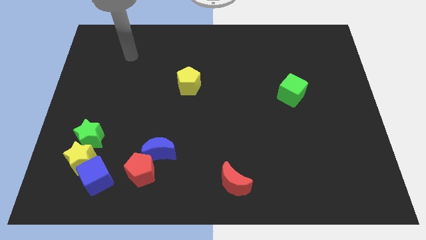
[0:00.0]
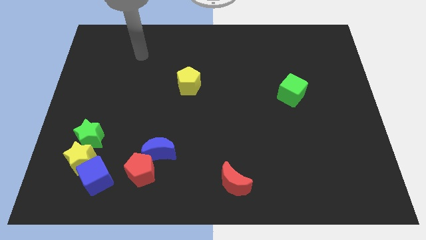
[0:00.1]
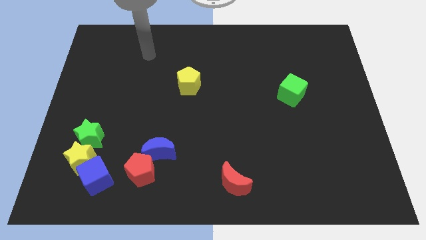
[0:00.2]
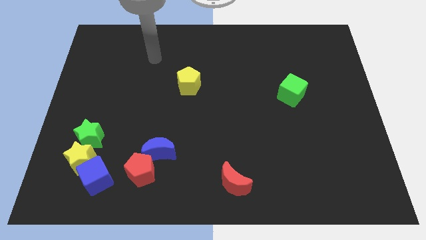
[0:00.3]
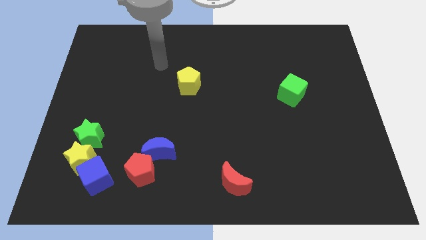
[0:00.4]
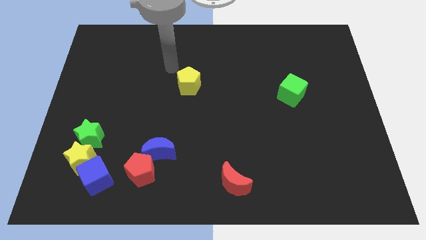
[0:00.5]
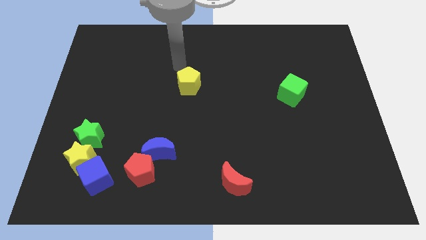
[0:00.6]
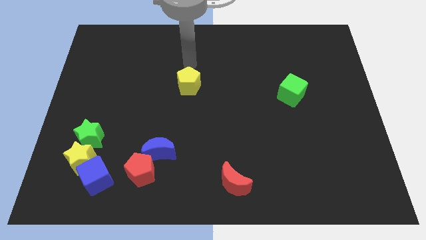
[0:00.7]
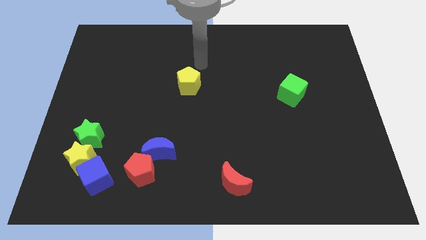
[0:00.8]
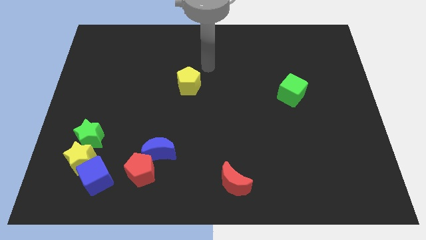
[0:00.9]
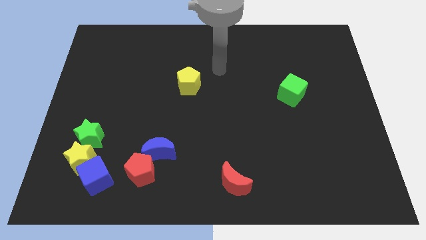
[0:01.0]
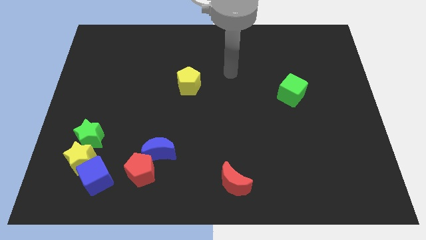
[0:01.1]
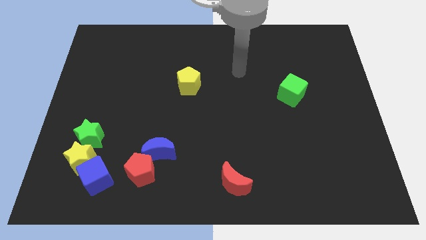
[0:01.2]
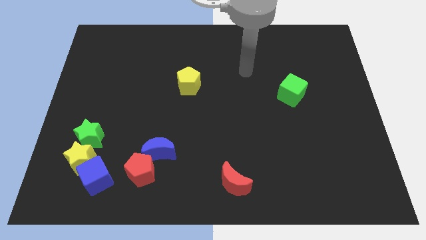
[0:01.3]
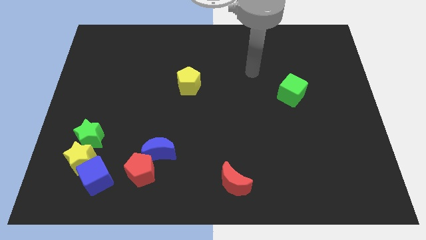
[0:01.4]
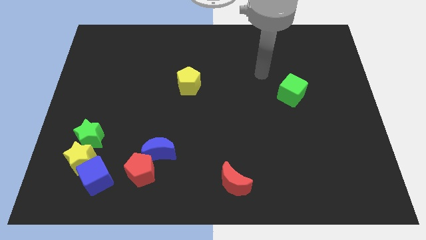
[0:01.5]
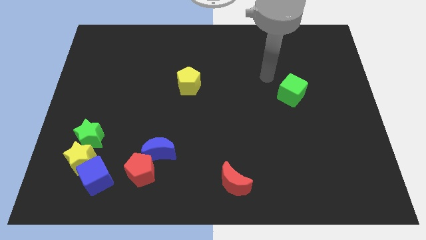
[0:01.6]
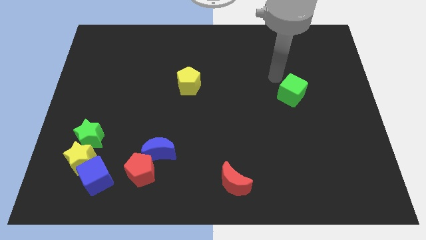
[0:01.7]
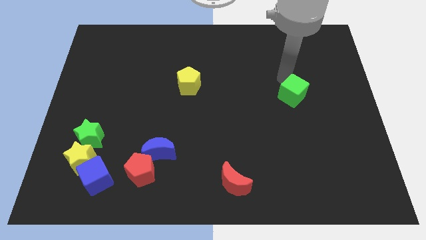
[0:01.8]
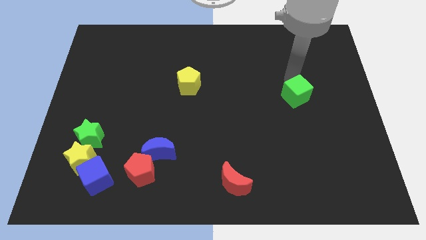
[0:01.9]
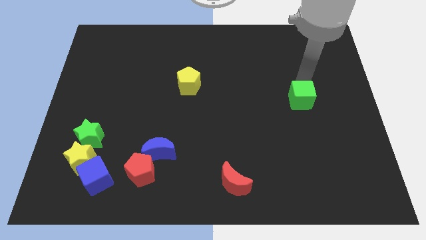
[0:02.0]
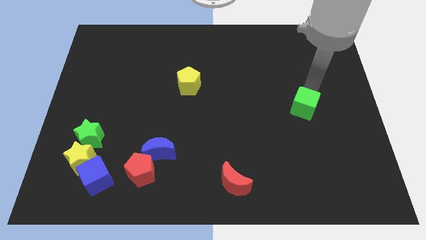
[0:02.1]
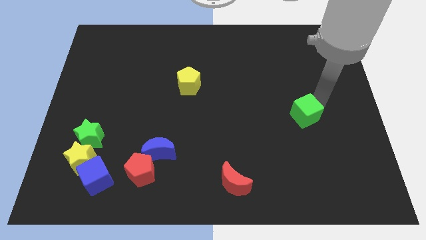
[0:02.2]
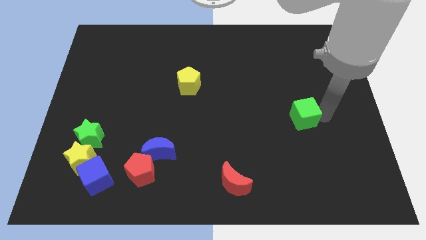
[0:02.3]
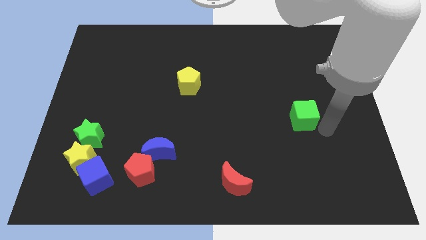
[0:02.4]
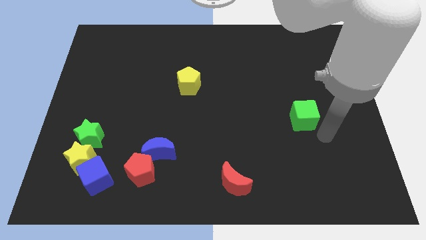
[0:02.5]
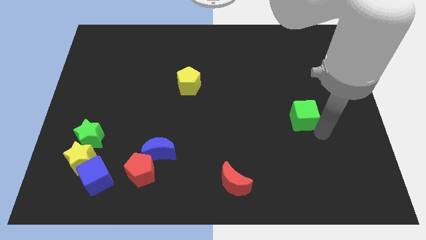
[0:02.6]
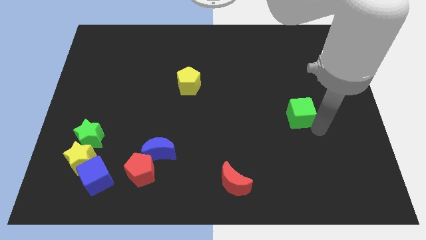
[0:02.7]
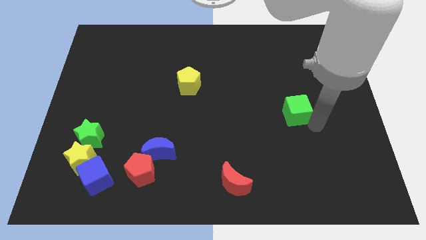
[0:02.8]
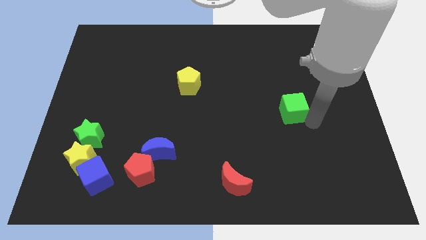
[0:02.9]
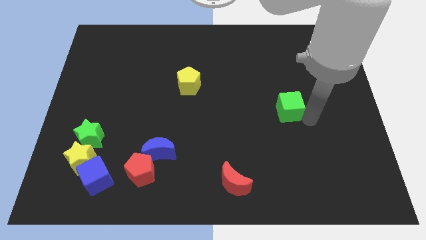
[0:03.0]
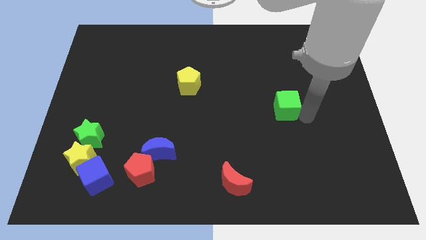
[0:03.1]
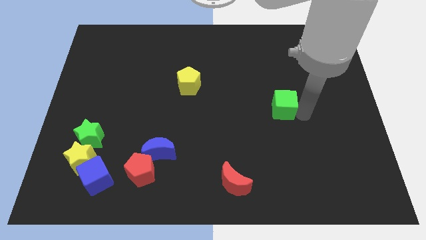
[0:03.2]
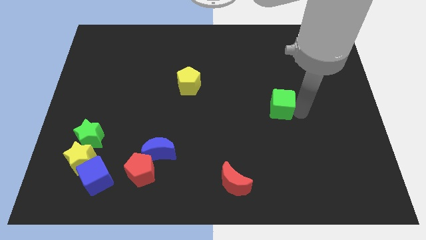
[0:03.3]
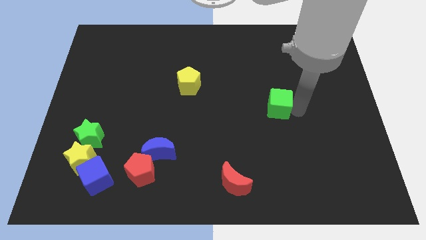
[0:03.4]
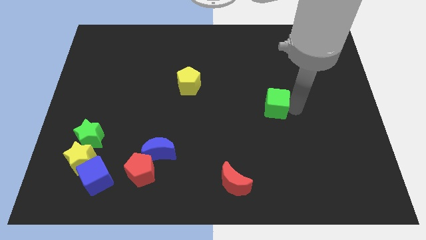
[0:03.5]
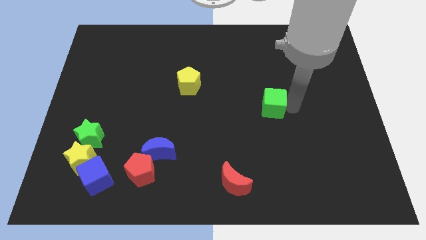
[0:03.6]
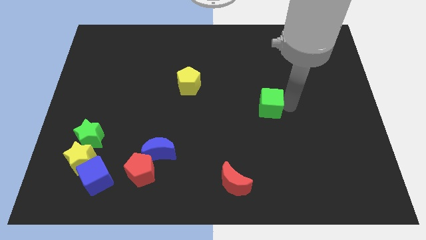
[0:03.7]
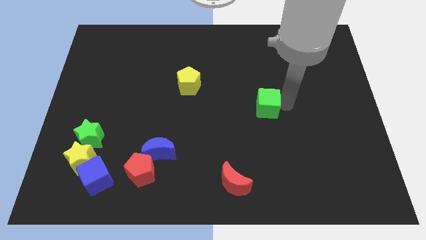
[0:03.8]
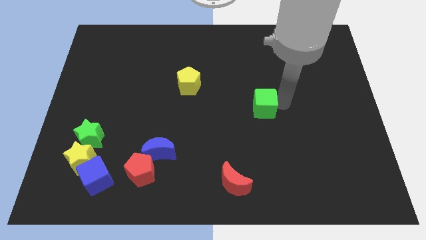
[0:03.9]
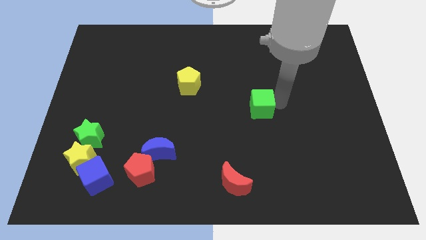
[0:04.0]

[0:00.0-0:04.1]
push the green cube left slightly

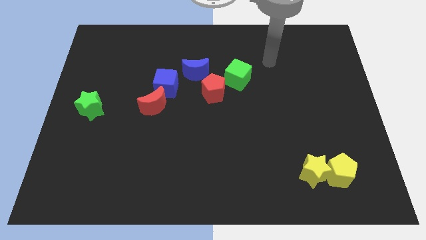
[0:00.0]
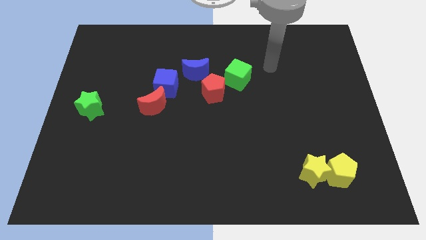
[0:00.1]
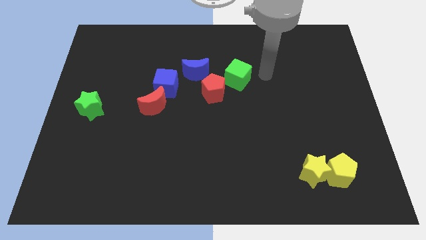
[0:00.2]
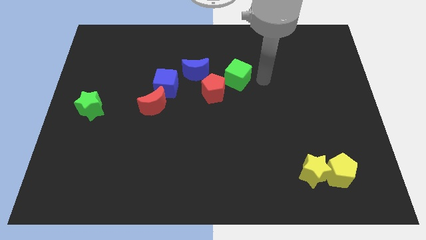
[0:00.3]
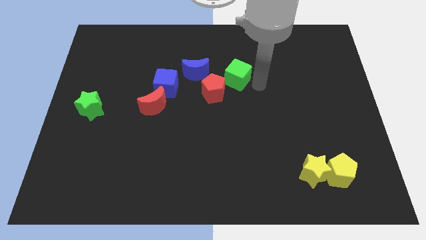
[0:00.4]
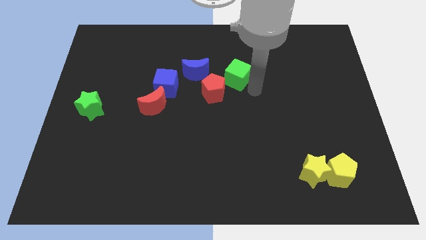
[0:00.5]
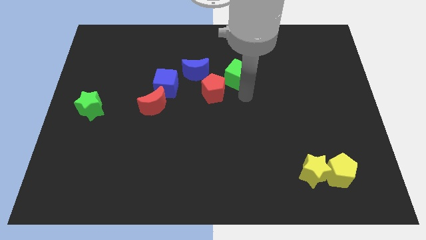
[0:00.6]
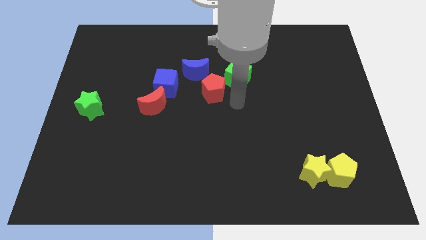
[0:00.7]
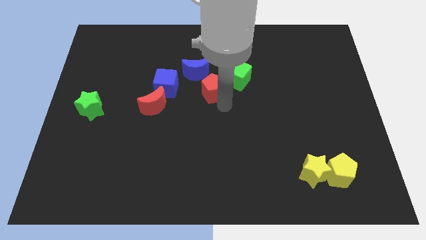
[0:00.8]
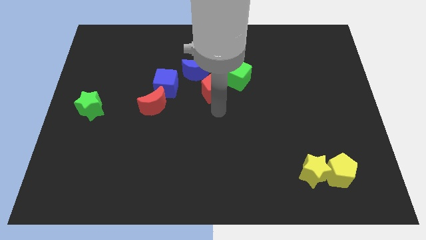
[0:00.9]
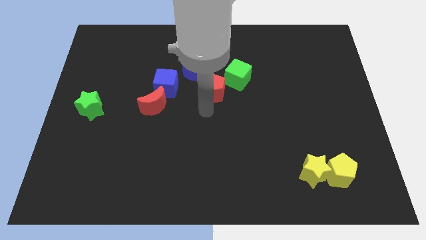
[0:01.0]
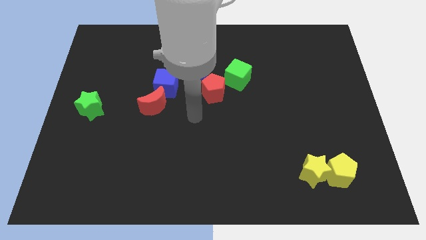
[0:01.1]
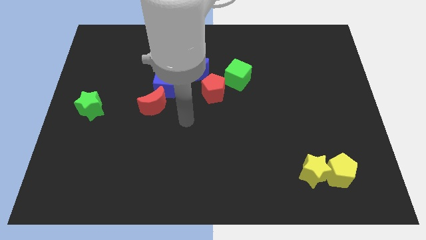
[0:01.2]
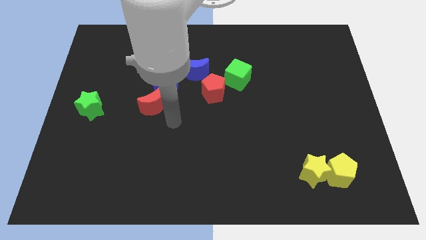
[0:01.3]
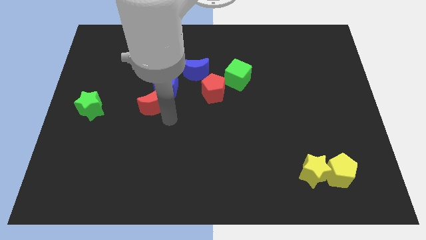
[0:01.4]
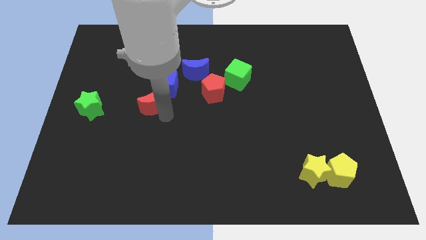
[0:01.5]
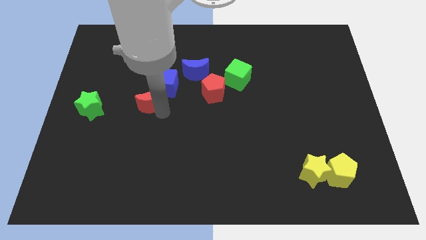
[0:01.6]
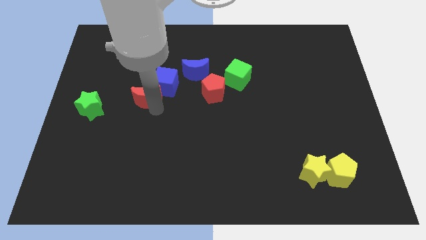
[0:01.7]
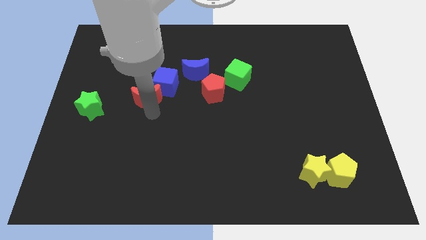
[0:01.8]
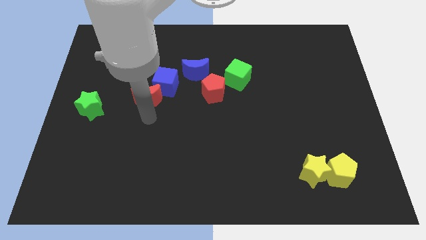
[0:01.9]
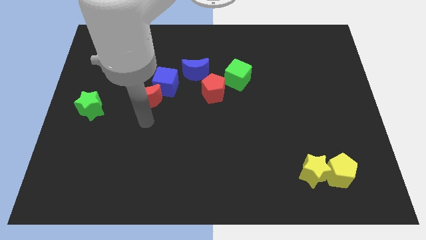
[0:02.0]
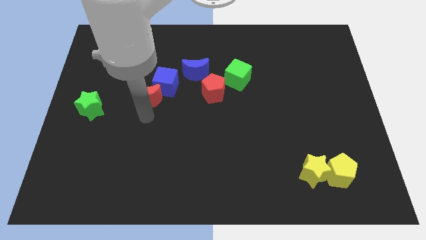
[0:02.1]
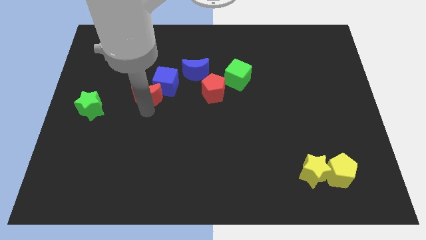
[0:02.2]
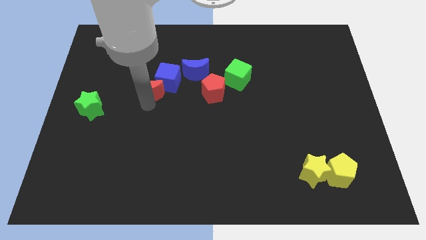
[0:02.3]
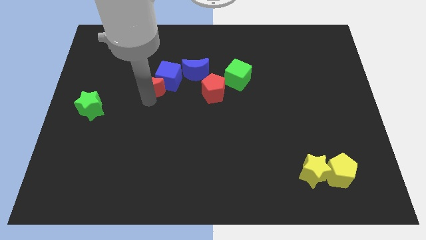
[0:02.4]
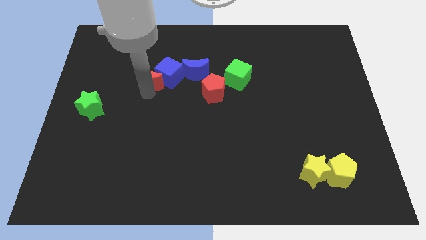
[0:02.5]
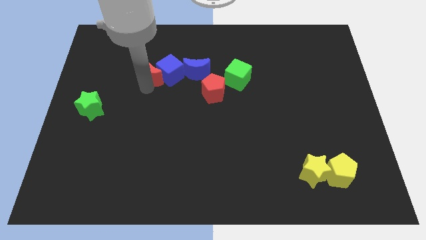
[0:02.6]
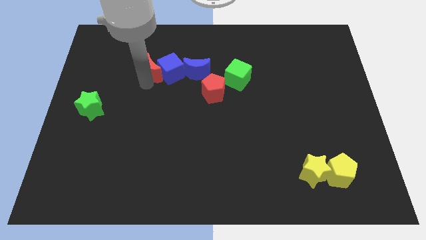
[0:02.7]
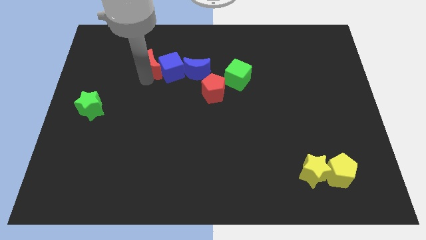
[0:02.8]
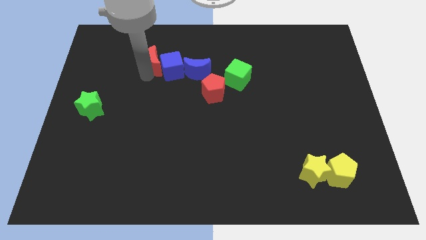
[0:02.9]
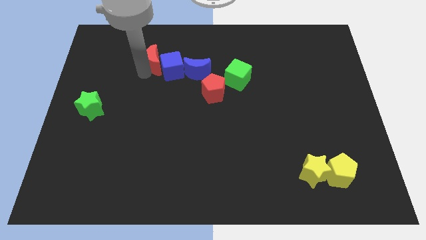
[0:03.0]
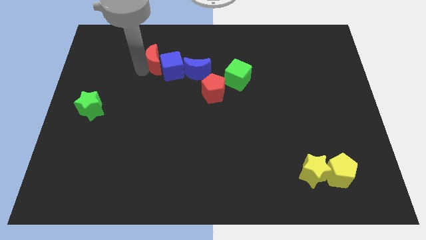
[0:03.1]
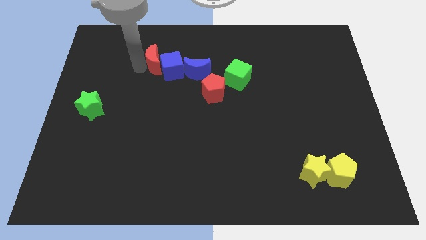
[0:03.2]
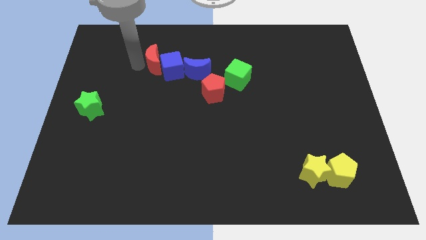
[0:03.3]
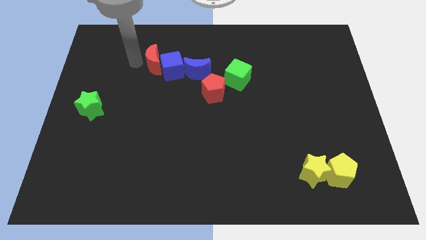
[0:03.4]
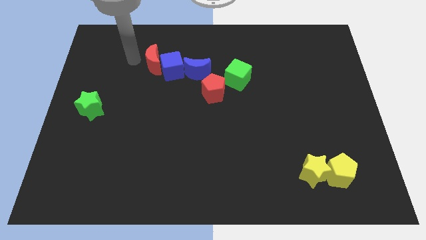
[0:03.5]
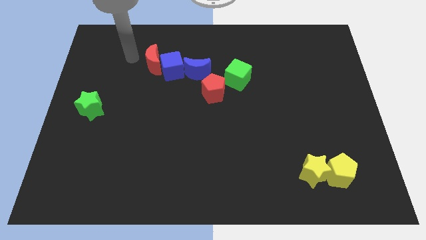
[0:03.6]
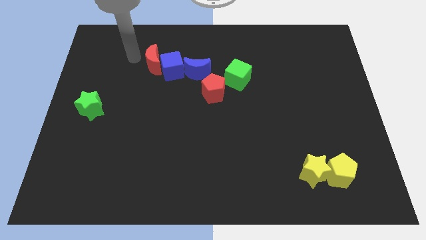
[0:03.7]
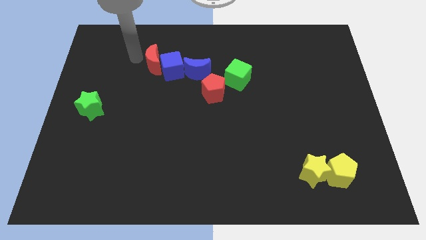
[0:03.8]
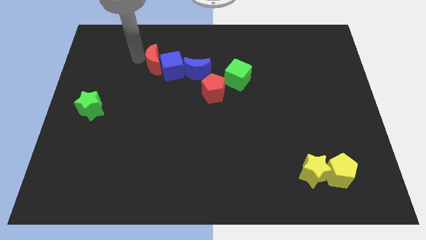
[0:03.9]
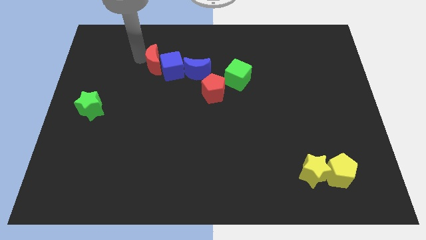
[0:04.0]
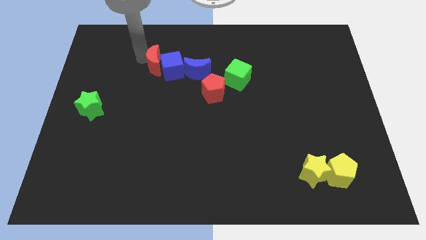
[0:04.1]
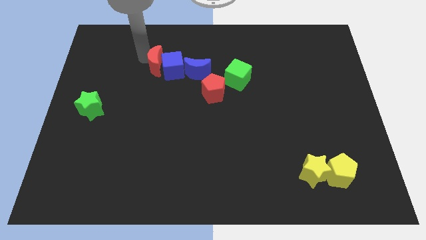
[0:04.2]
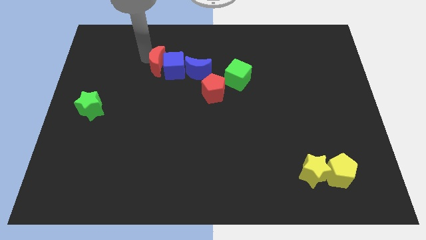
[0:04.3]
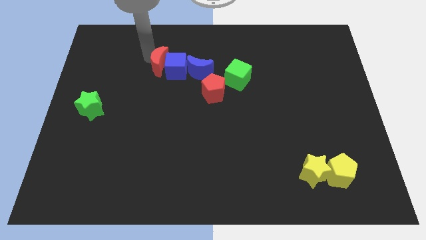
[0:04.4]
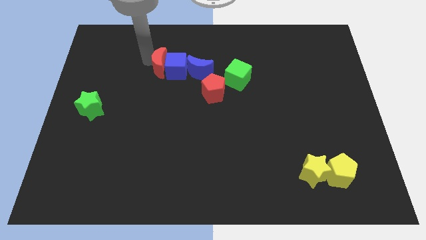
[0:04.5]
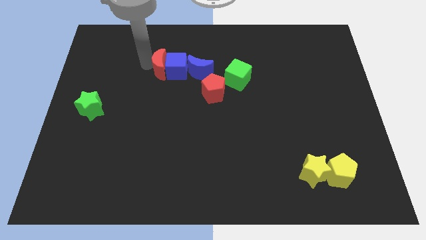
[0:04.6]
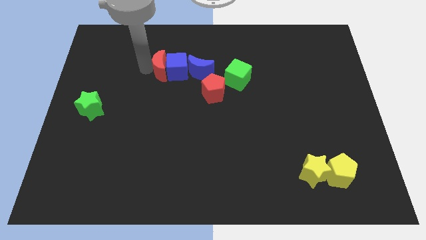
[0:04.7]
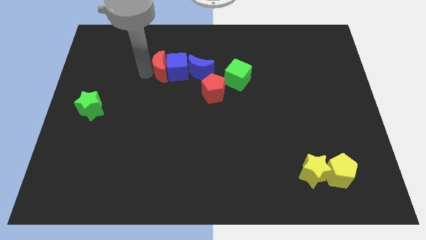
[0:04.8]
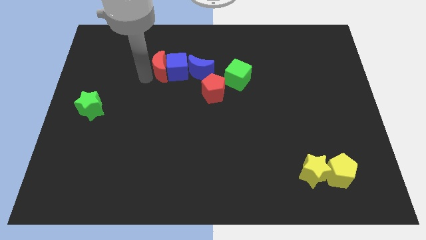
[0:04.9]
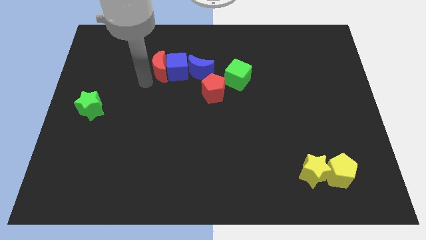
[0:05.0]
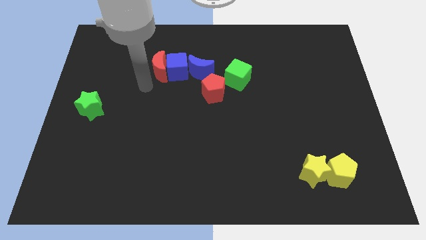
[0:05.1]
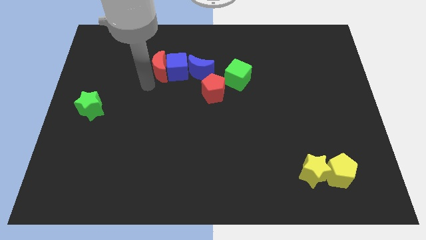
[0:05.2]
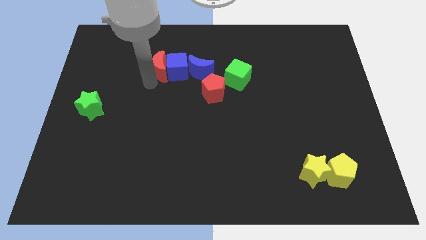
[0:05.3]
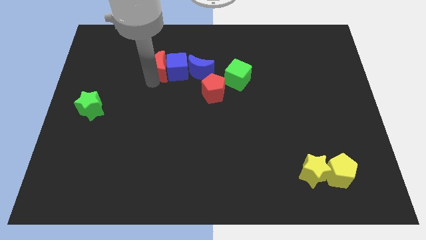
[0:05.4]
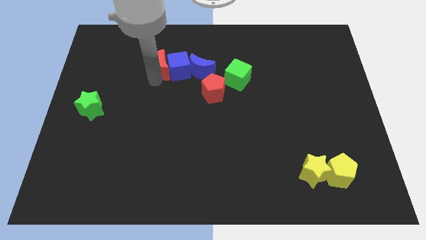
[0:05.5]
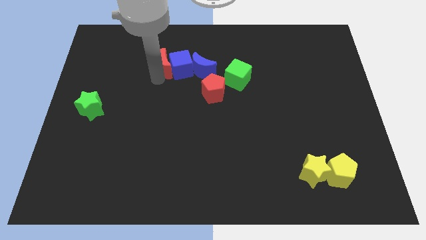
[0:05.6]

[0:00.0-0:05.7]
slightly move the red moon upwards and then to the right
